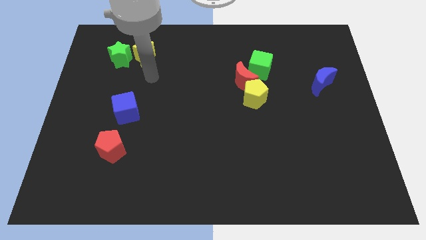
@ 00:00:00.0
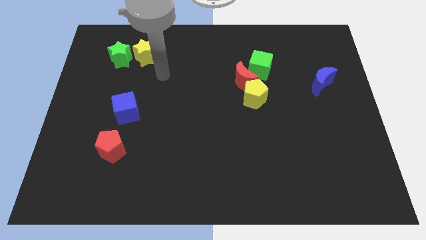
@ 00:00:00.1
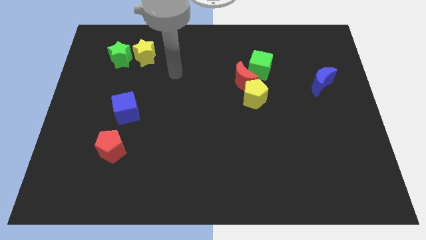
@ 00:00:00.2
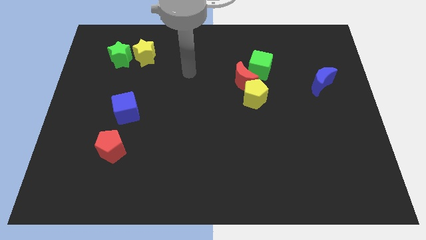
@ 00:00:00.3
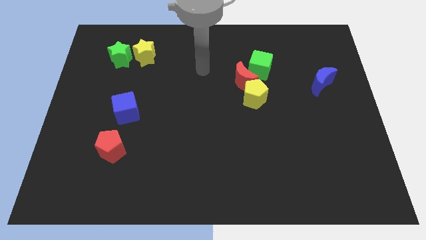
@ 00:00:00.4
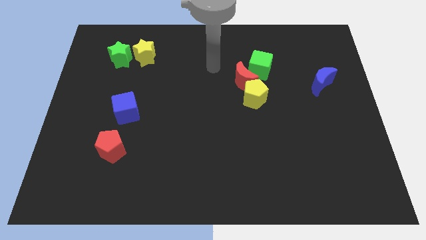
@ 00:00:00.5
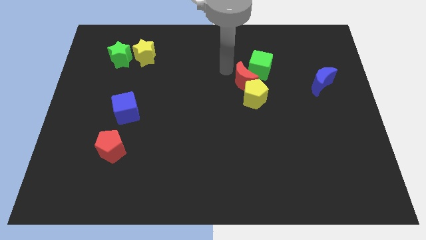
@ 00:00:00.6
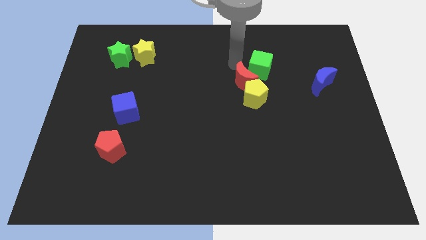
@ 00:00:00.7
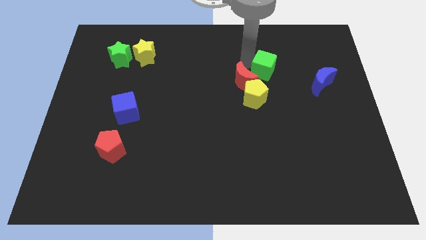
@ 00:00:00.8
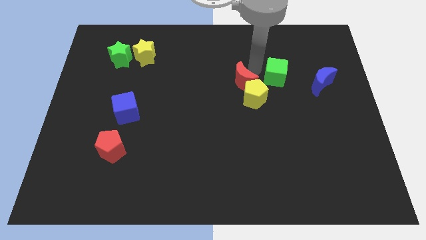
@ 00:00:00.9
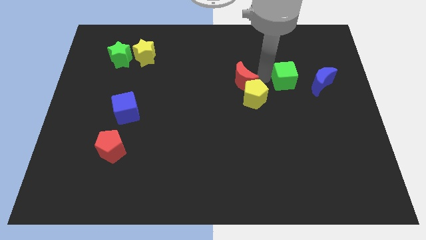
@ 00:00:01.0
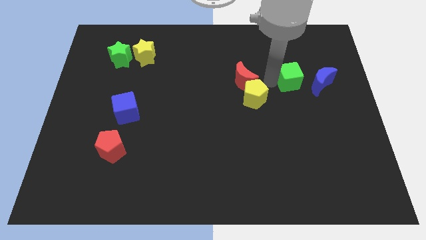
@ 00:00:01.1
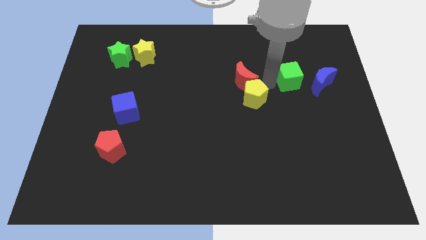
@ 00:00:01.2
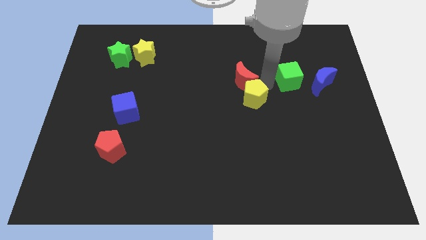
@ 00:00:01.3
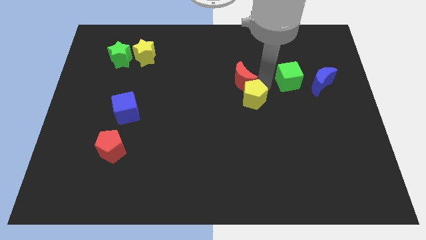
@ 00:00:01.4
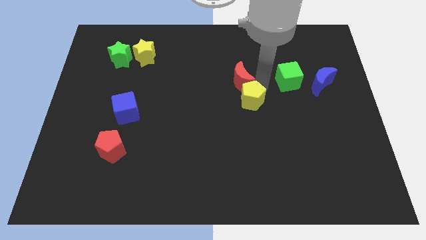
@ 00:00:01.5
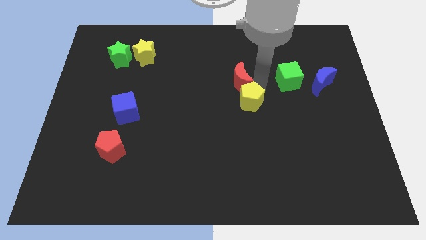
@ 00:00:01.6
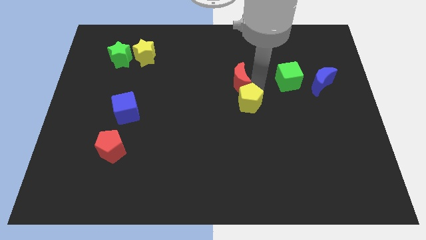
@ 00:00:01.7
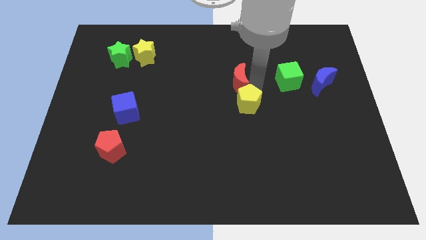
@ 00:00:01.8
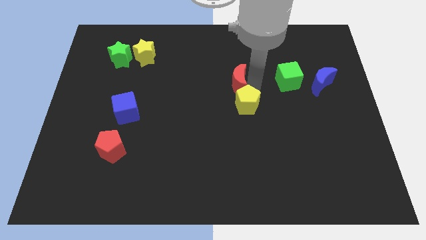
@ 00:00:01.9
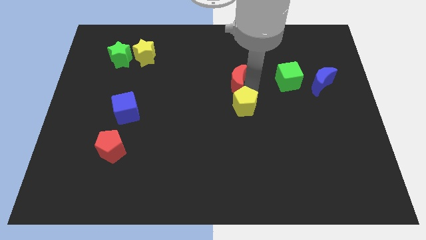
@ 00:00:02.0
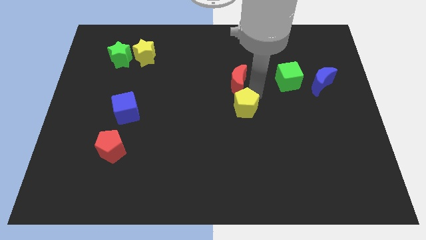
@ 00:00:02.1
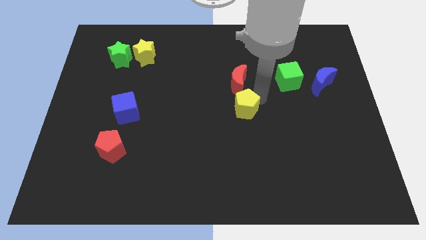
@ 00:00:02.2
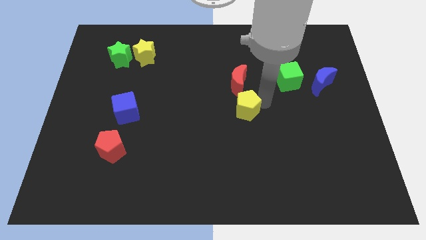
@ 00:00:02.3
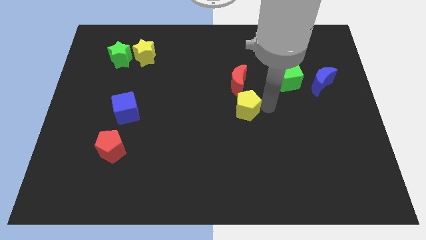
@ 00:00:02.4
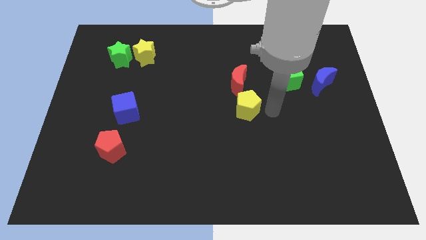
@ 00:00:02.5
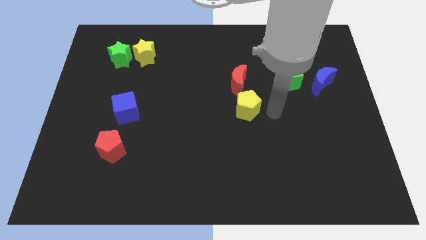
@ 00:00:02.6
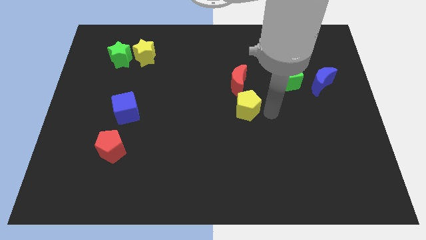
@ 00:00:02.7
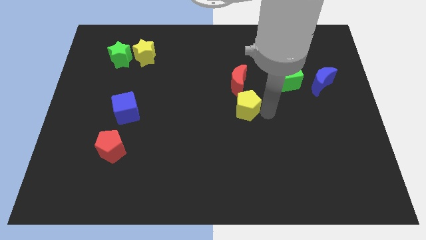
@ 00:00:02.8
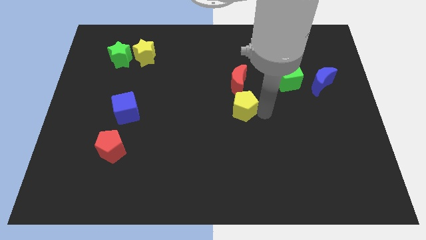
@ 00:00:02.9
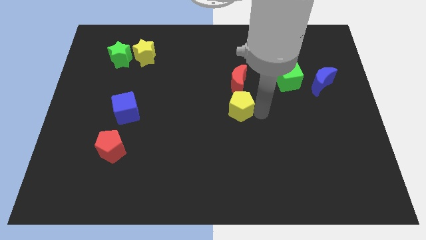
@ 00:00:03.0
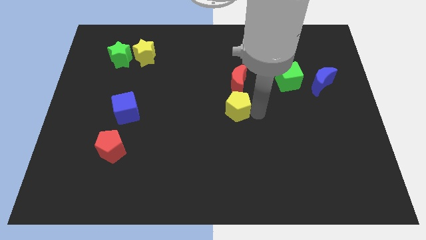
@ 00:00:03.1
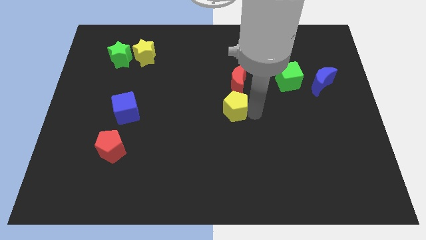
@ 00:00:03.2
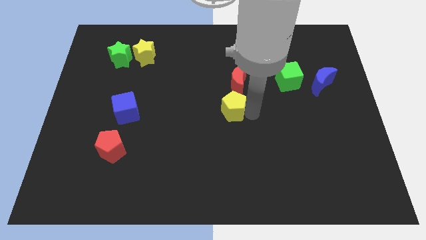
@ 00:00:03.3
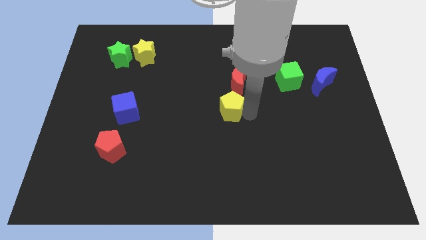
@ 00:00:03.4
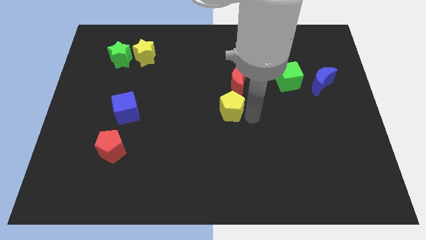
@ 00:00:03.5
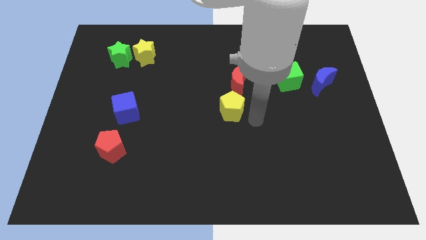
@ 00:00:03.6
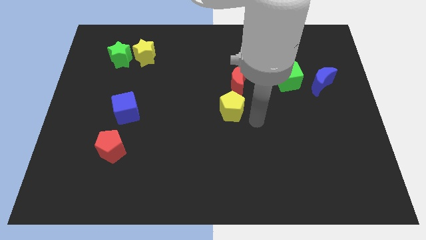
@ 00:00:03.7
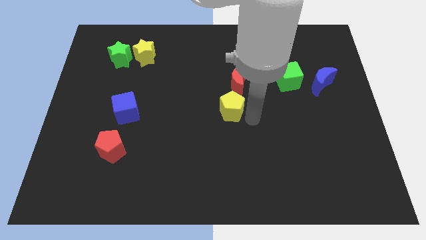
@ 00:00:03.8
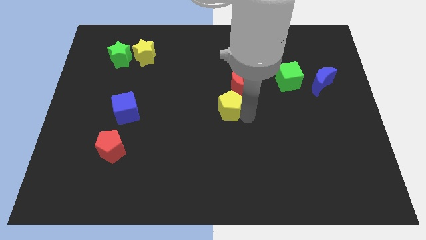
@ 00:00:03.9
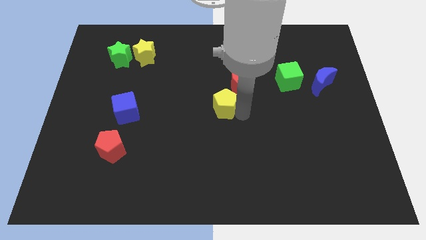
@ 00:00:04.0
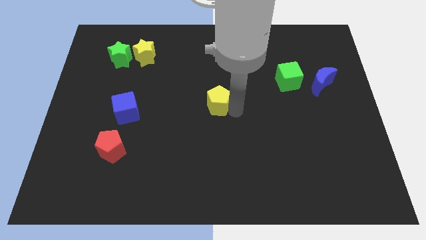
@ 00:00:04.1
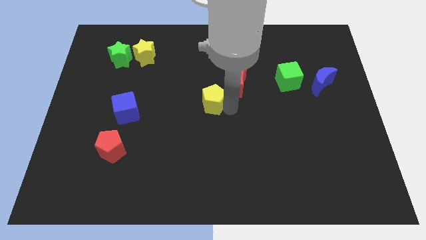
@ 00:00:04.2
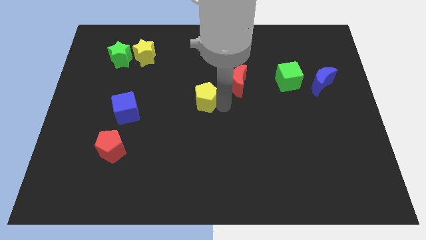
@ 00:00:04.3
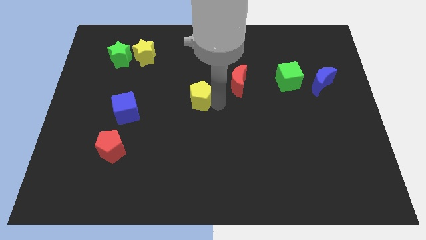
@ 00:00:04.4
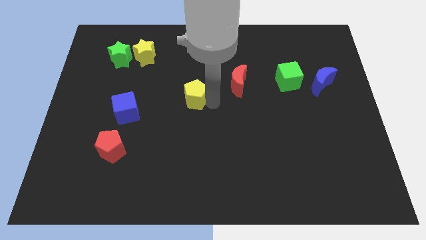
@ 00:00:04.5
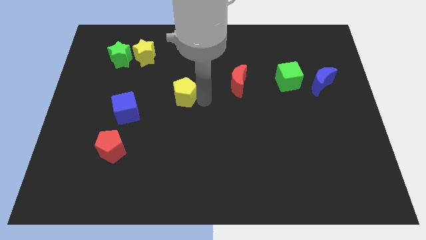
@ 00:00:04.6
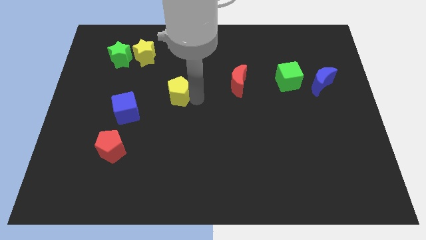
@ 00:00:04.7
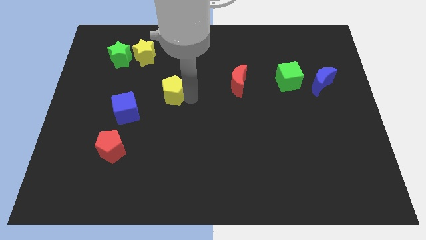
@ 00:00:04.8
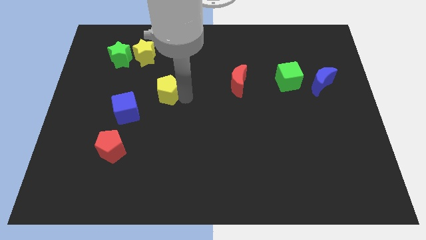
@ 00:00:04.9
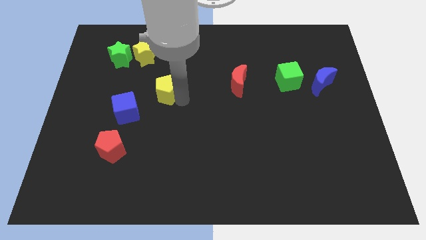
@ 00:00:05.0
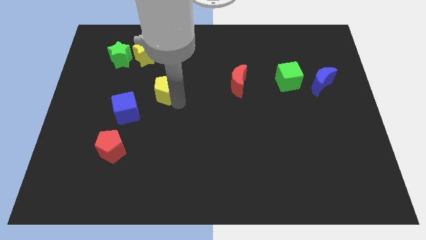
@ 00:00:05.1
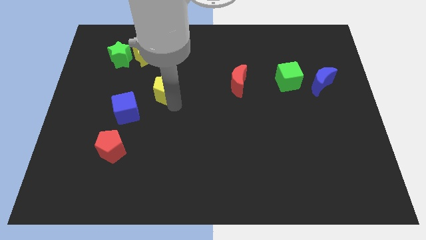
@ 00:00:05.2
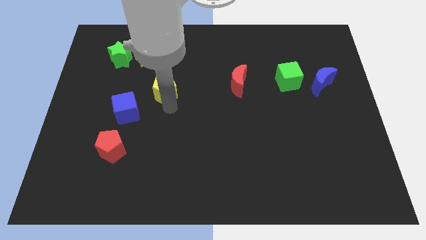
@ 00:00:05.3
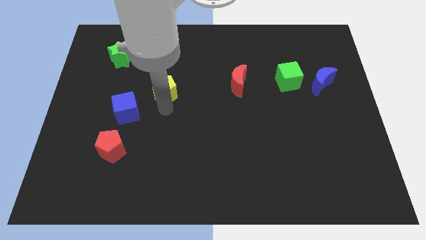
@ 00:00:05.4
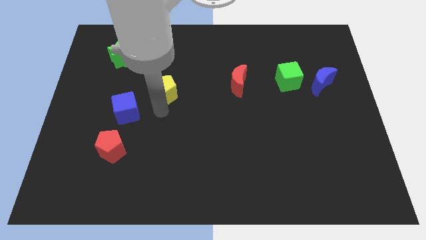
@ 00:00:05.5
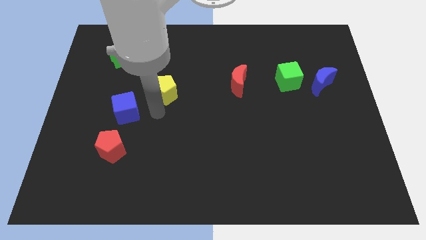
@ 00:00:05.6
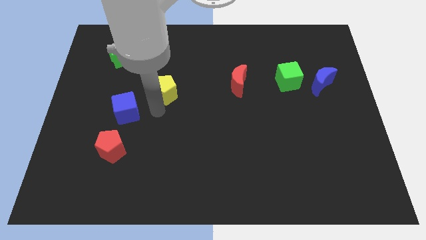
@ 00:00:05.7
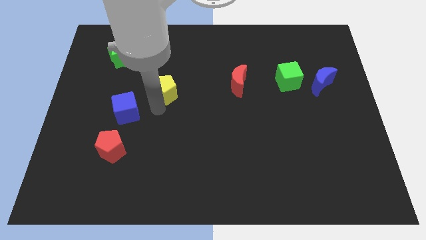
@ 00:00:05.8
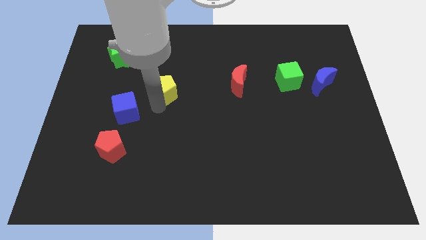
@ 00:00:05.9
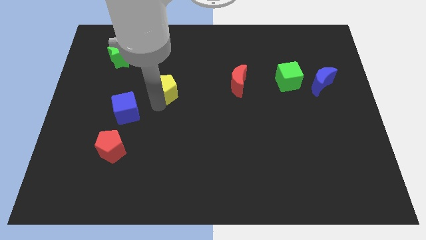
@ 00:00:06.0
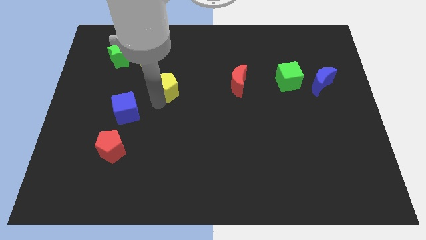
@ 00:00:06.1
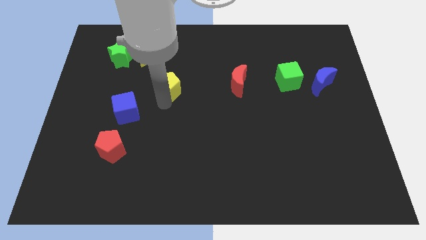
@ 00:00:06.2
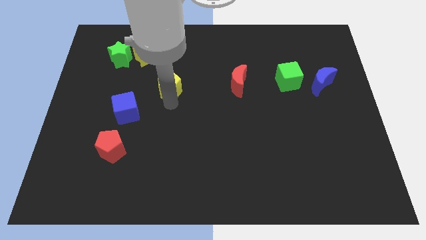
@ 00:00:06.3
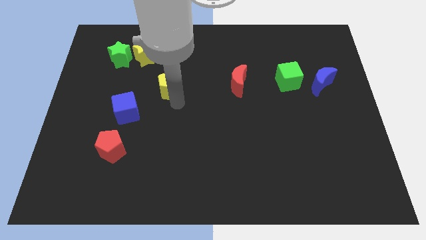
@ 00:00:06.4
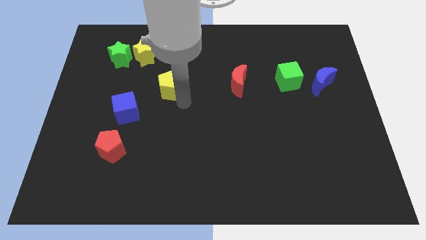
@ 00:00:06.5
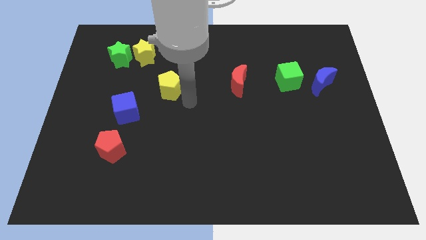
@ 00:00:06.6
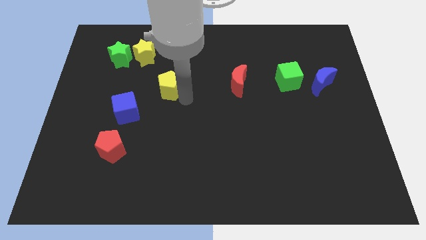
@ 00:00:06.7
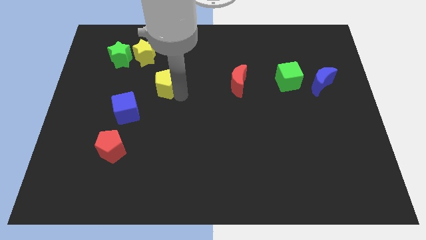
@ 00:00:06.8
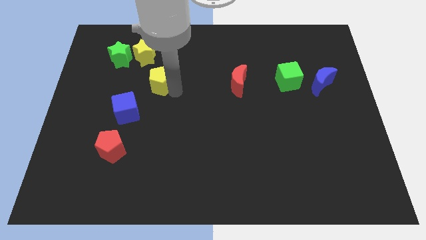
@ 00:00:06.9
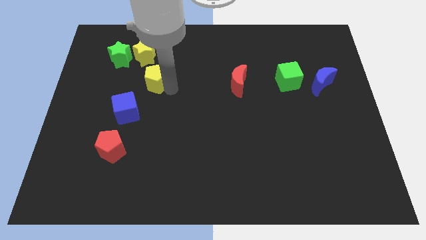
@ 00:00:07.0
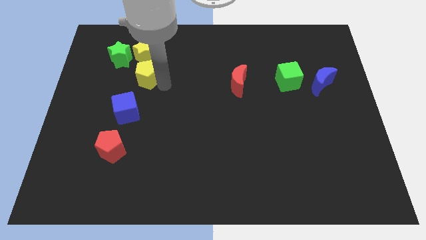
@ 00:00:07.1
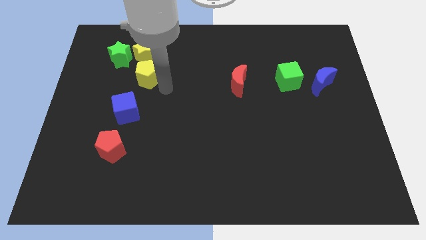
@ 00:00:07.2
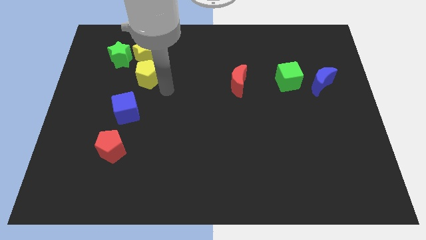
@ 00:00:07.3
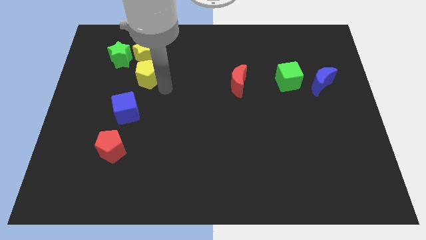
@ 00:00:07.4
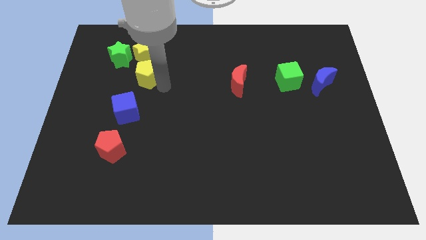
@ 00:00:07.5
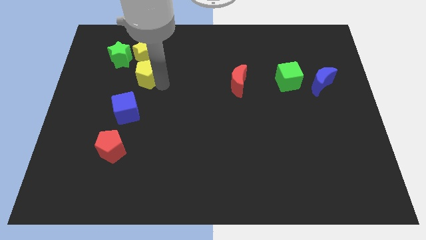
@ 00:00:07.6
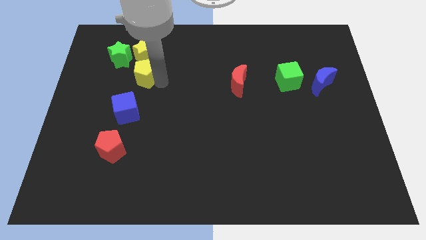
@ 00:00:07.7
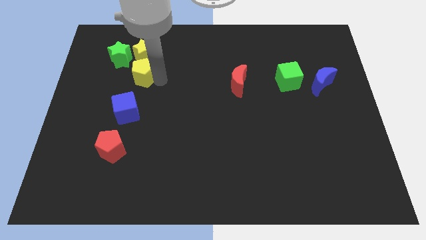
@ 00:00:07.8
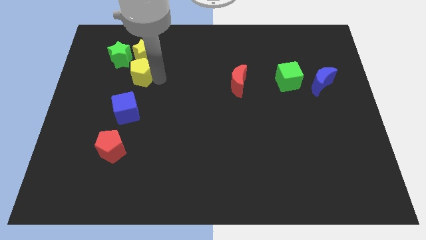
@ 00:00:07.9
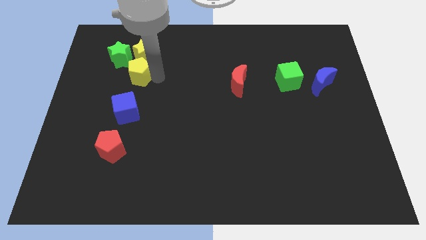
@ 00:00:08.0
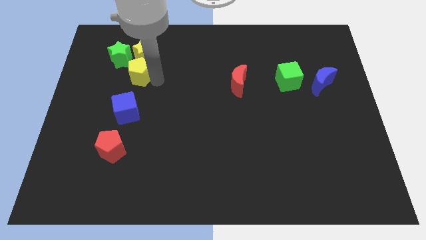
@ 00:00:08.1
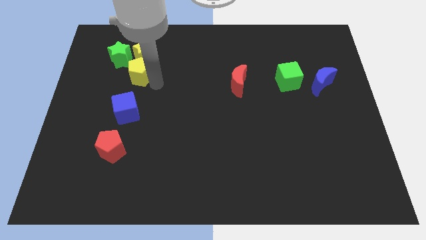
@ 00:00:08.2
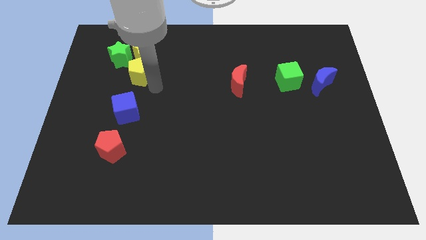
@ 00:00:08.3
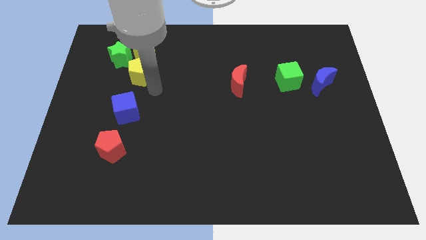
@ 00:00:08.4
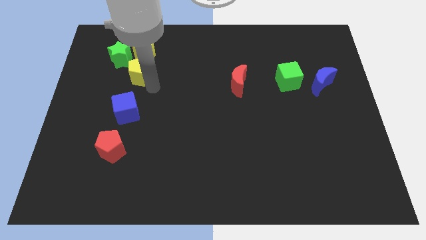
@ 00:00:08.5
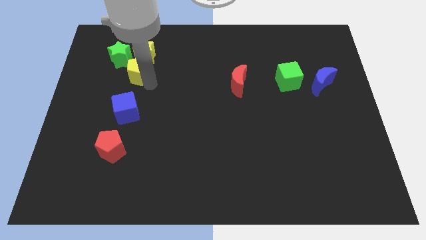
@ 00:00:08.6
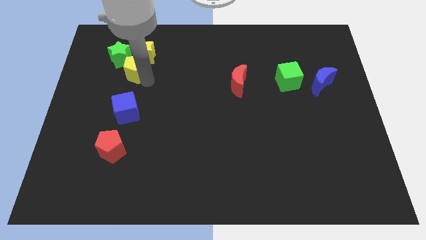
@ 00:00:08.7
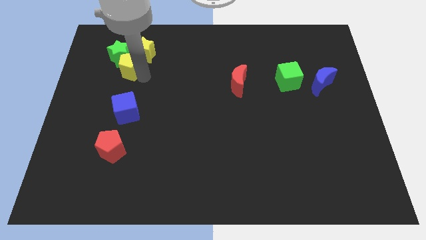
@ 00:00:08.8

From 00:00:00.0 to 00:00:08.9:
put the yellow pentagon close to the green star
